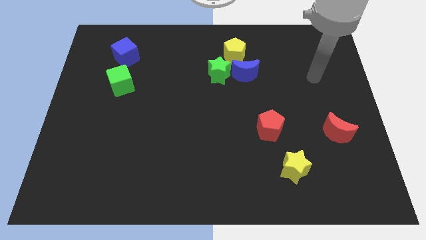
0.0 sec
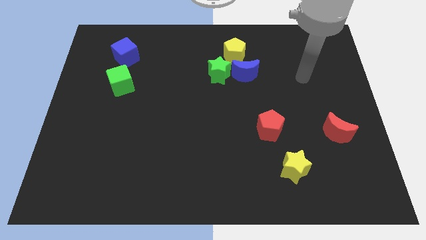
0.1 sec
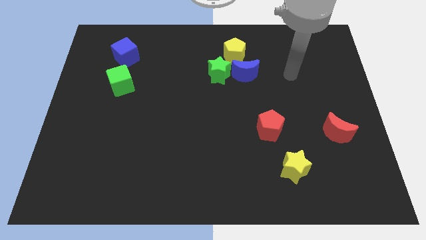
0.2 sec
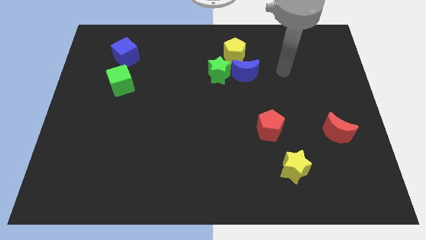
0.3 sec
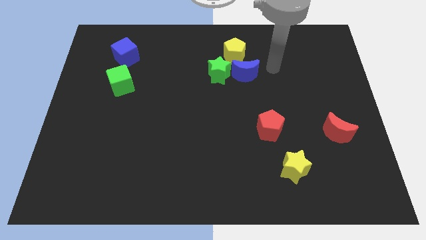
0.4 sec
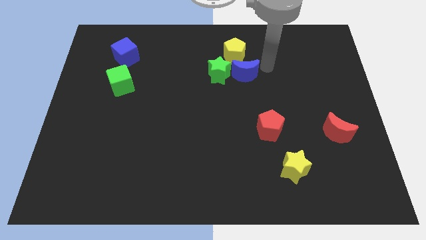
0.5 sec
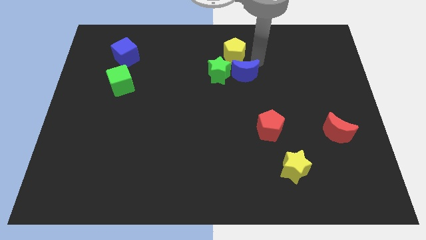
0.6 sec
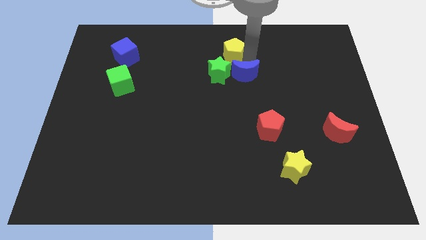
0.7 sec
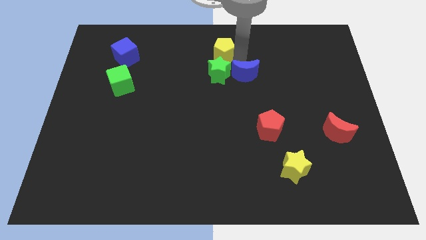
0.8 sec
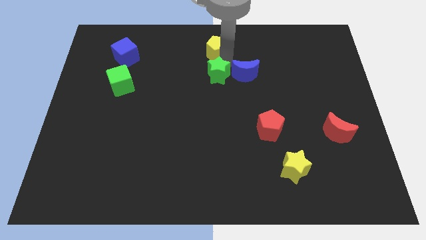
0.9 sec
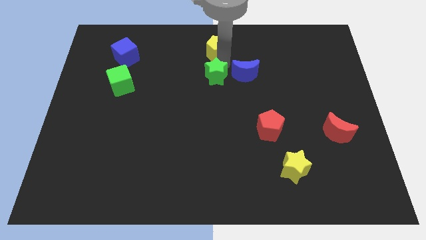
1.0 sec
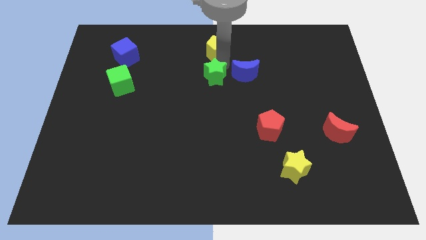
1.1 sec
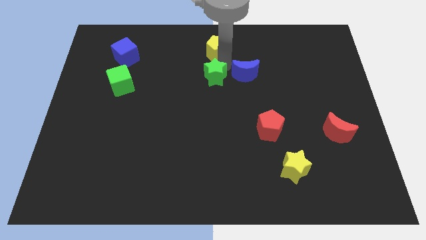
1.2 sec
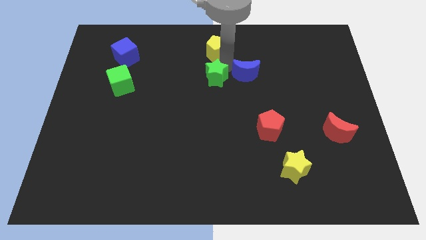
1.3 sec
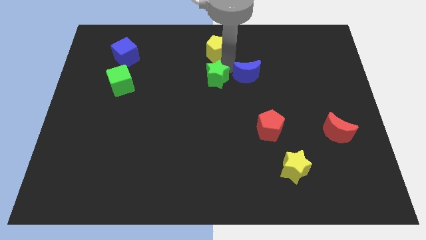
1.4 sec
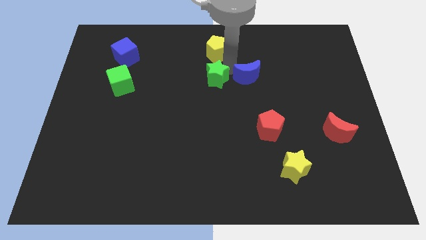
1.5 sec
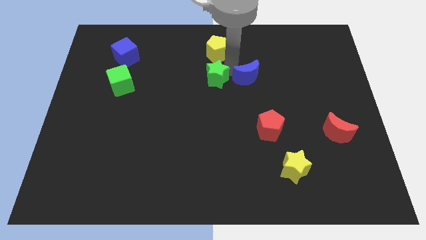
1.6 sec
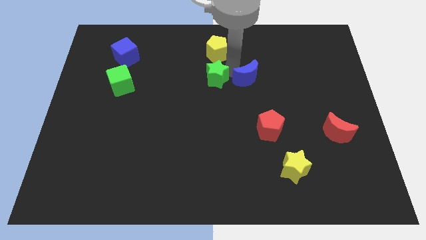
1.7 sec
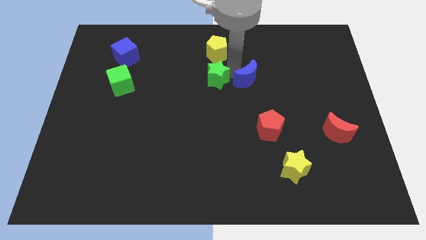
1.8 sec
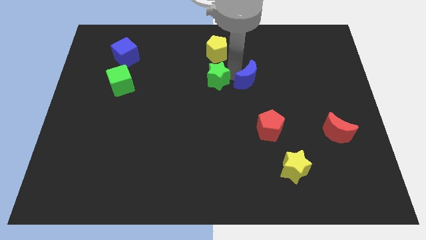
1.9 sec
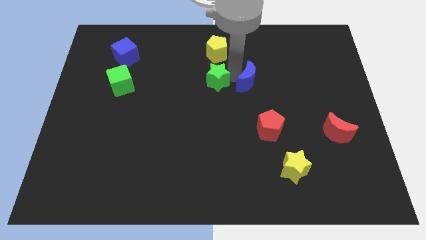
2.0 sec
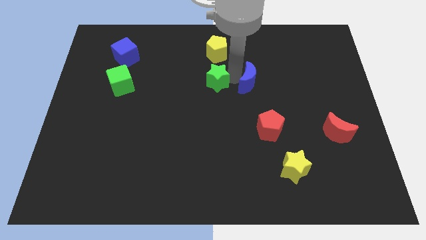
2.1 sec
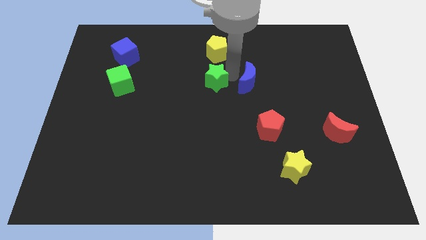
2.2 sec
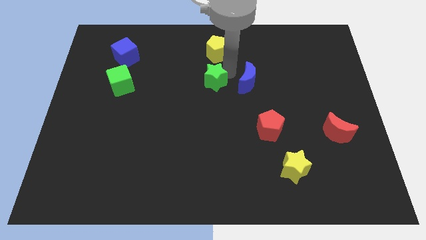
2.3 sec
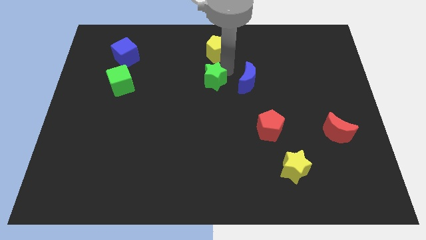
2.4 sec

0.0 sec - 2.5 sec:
pull the blue moon apart from the green star and yellow pentagon

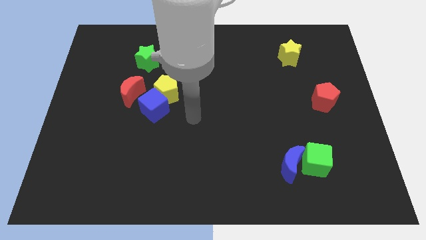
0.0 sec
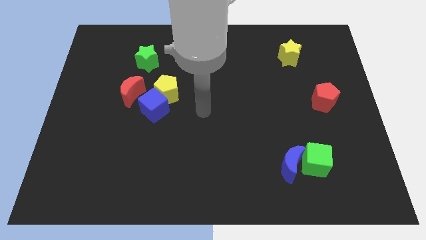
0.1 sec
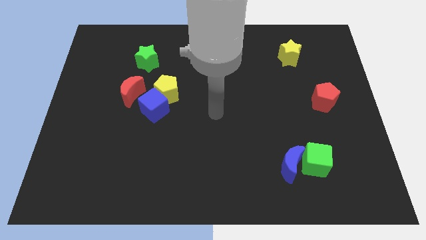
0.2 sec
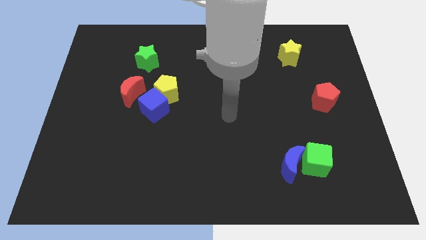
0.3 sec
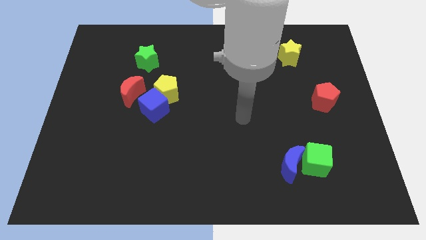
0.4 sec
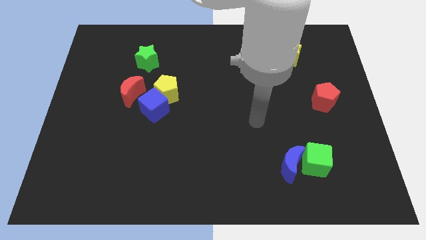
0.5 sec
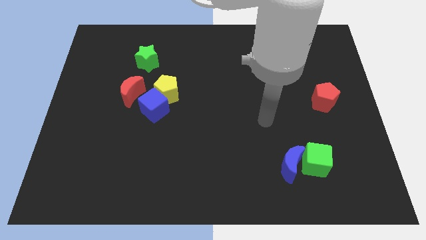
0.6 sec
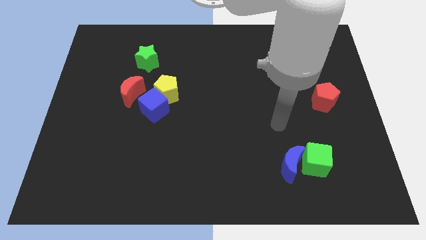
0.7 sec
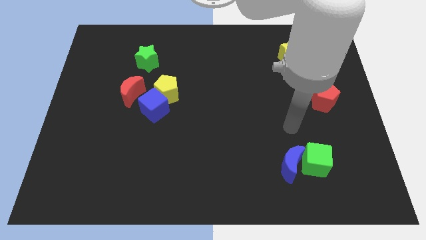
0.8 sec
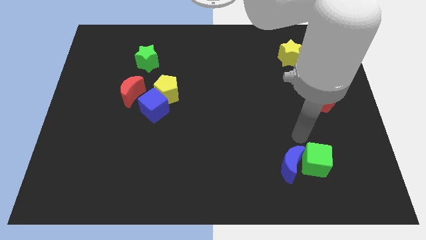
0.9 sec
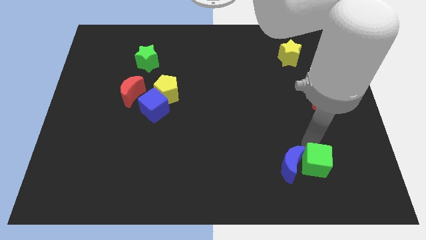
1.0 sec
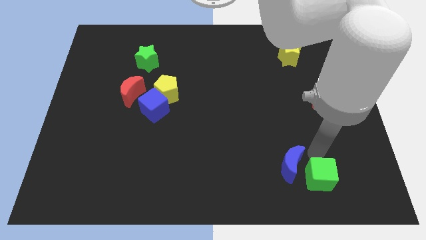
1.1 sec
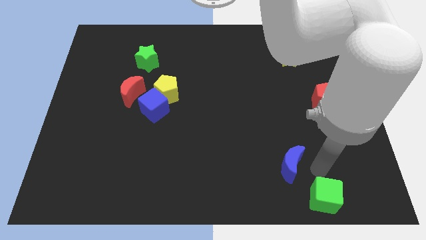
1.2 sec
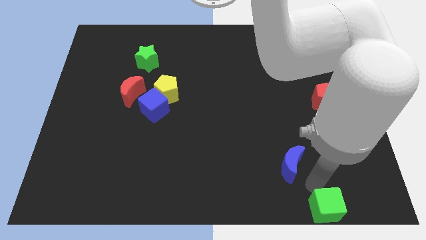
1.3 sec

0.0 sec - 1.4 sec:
separate the blue moon from the green cube

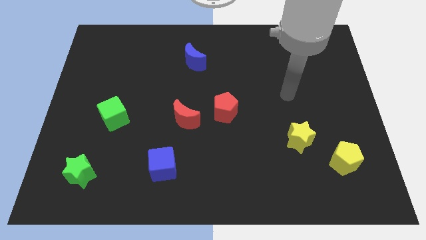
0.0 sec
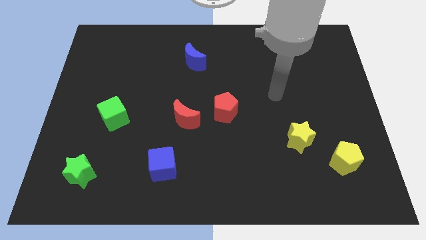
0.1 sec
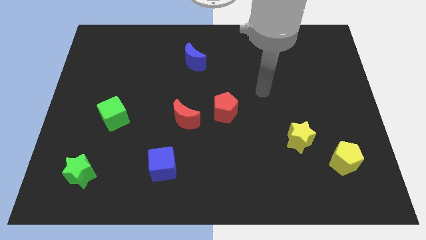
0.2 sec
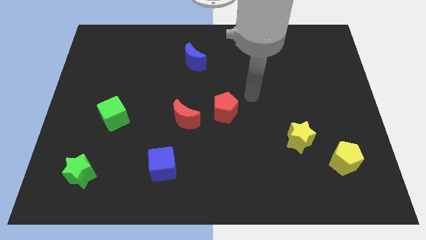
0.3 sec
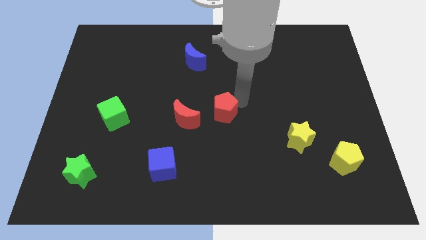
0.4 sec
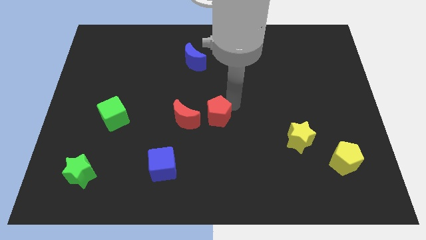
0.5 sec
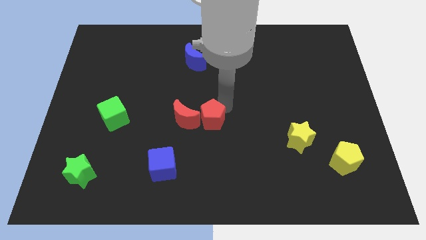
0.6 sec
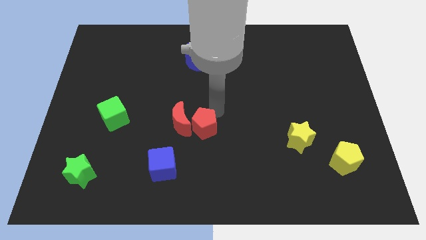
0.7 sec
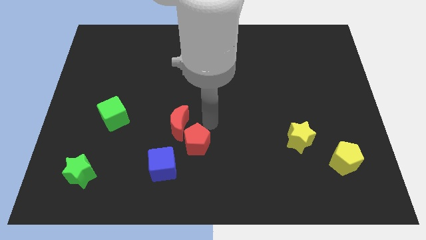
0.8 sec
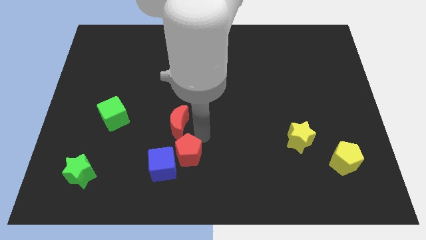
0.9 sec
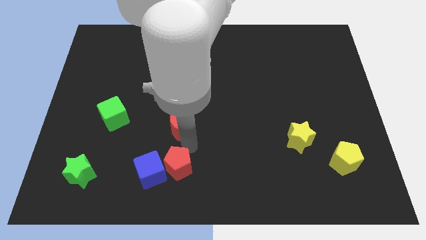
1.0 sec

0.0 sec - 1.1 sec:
move the red moon away from the red pentagon

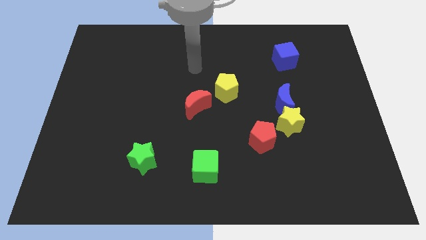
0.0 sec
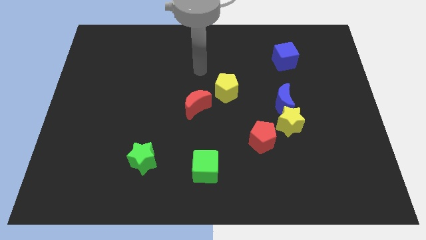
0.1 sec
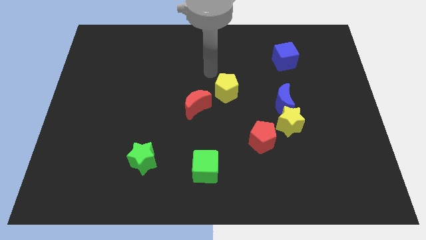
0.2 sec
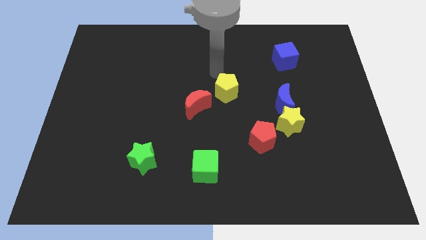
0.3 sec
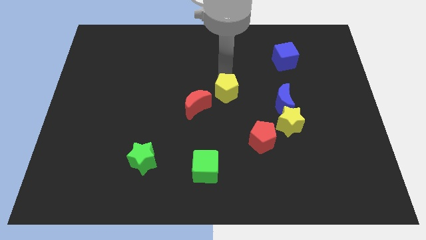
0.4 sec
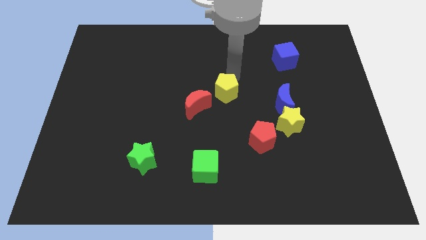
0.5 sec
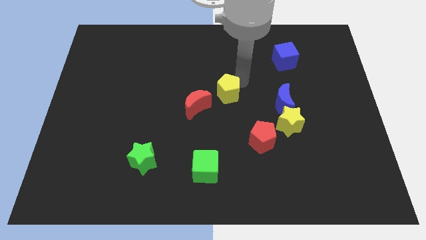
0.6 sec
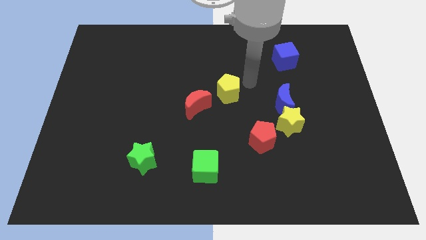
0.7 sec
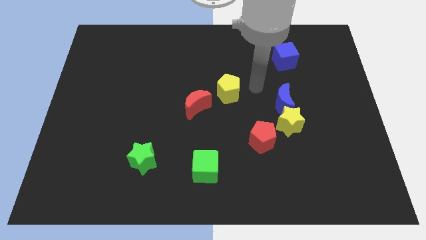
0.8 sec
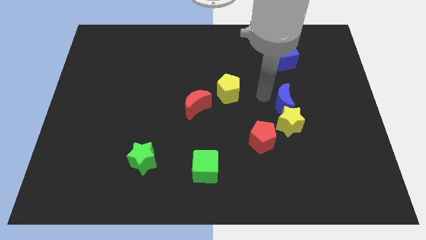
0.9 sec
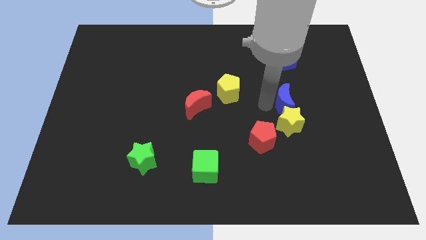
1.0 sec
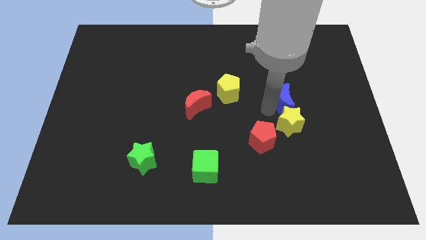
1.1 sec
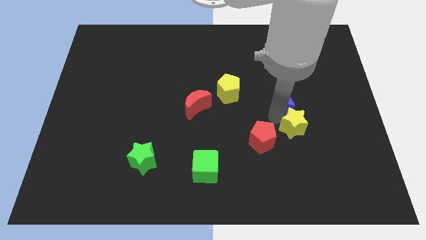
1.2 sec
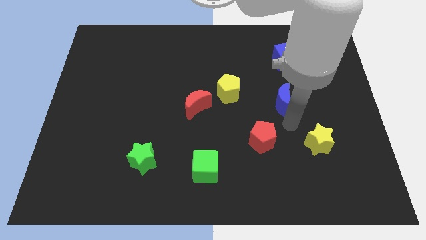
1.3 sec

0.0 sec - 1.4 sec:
move the blue moon away from the yellow star

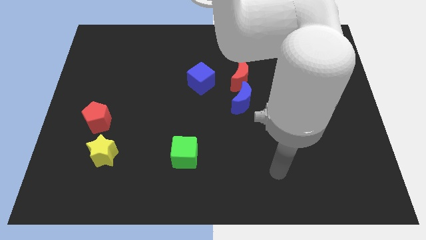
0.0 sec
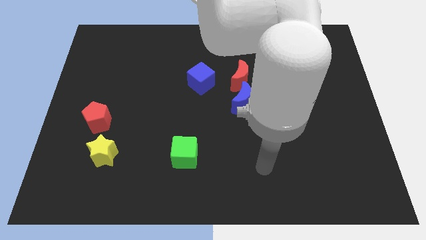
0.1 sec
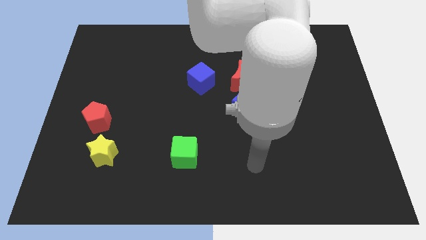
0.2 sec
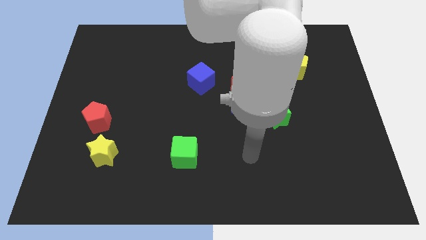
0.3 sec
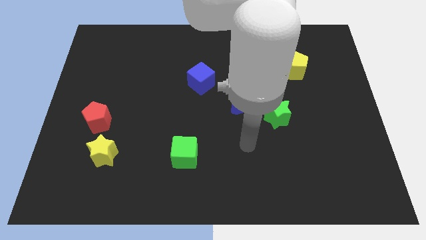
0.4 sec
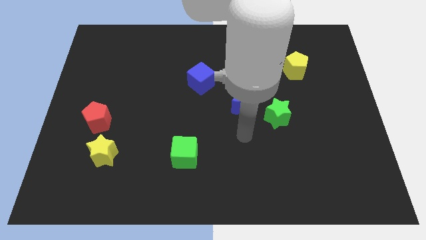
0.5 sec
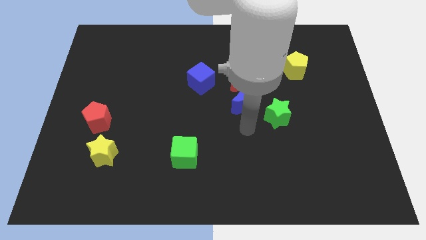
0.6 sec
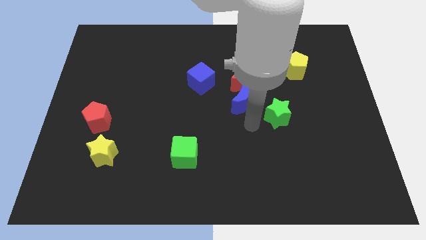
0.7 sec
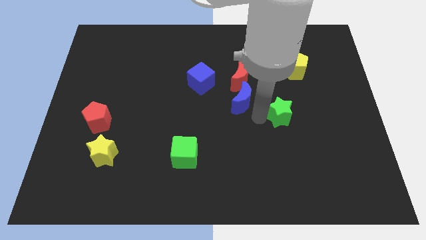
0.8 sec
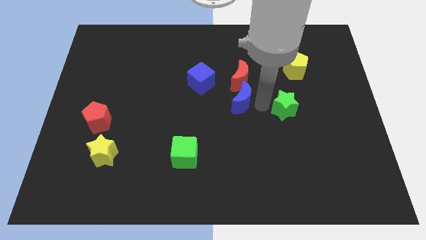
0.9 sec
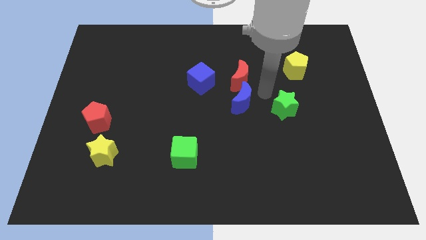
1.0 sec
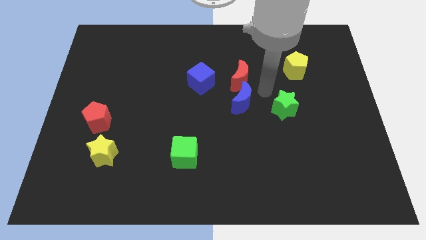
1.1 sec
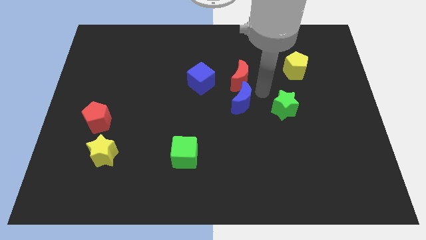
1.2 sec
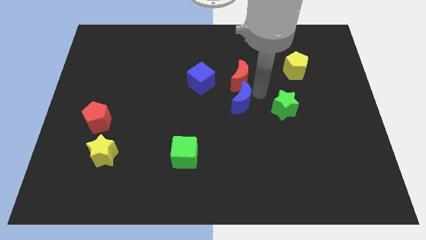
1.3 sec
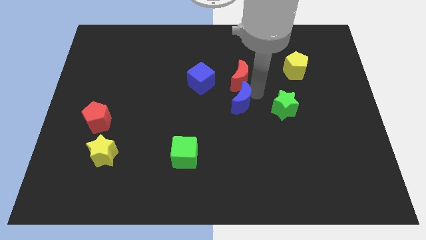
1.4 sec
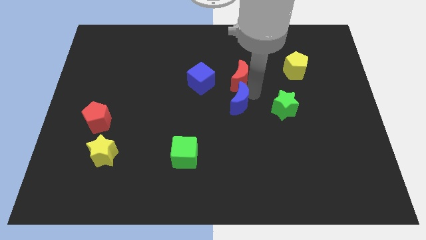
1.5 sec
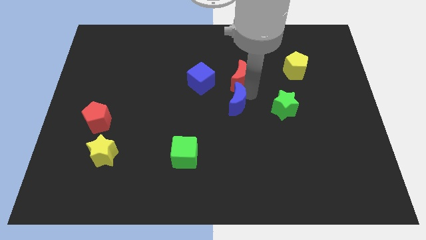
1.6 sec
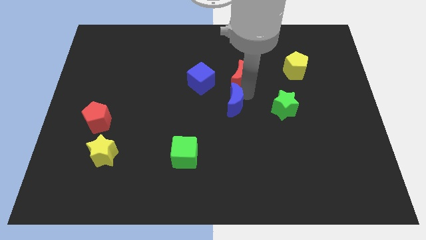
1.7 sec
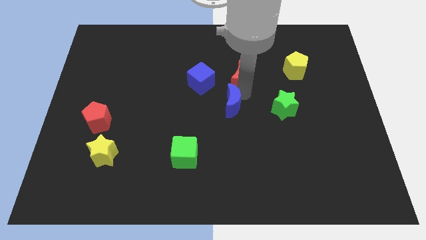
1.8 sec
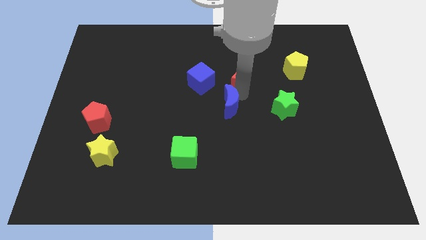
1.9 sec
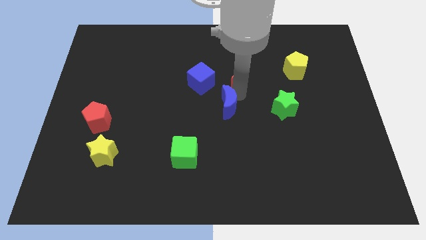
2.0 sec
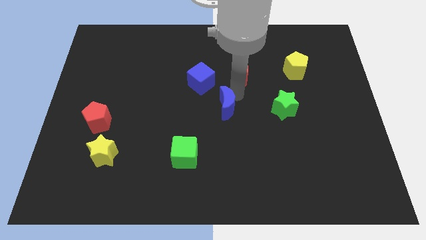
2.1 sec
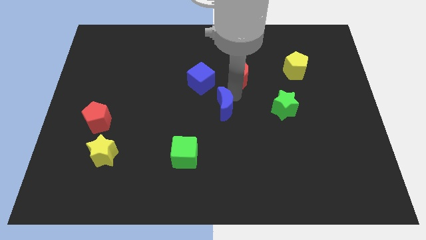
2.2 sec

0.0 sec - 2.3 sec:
pull the blue moon apart from the red moon and green star

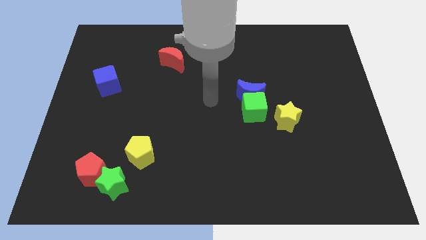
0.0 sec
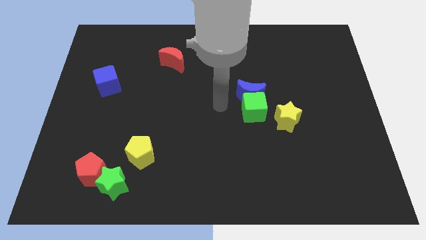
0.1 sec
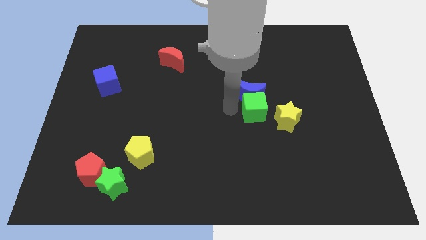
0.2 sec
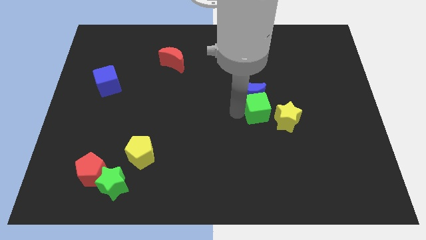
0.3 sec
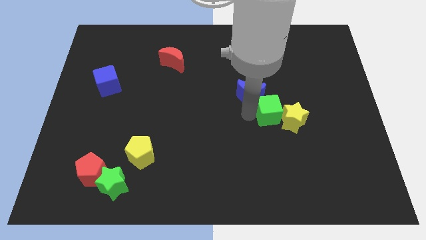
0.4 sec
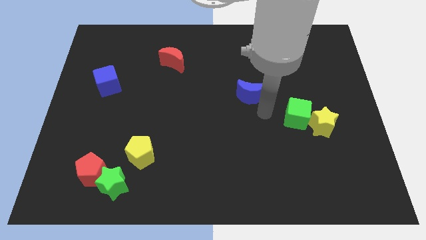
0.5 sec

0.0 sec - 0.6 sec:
pull the blue moon apart from the green cube
